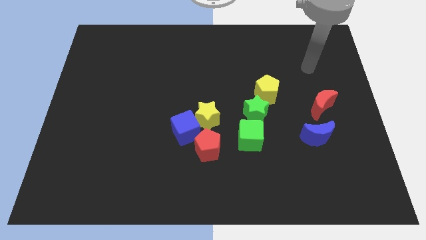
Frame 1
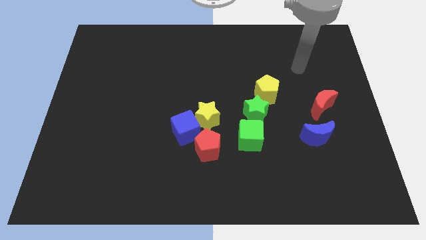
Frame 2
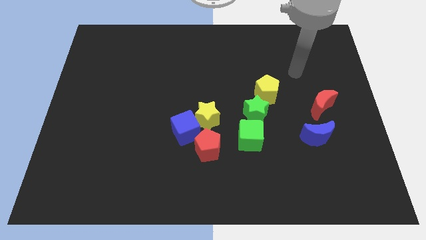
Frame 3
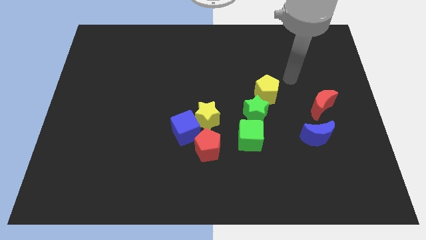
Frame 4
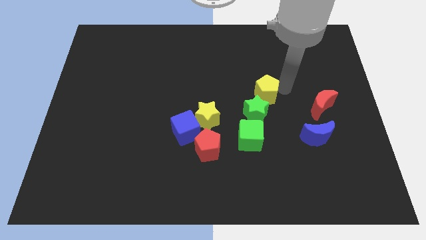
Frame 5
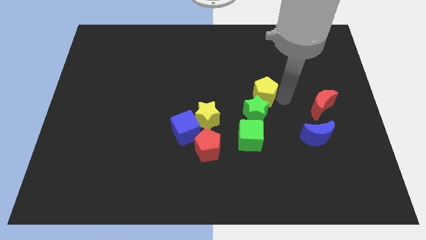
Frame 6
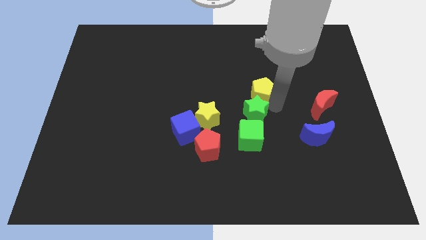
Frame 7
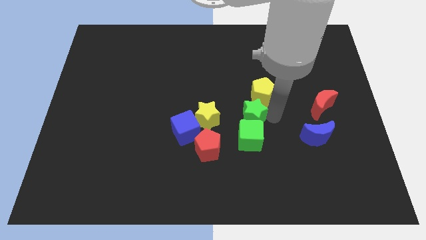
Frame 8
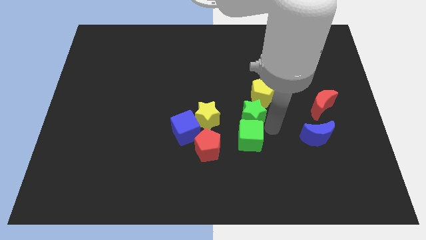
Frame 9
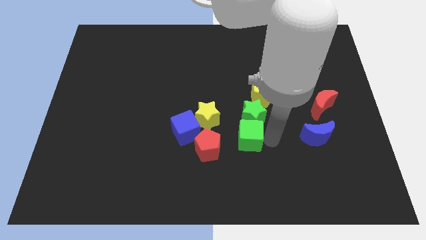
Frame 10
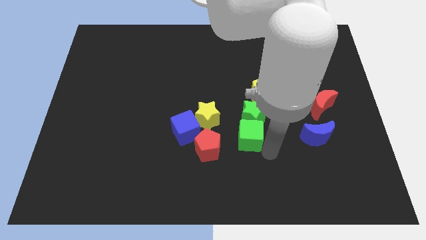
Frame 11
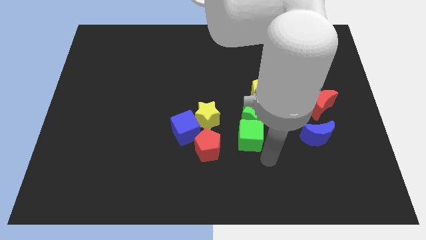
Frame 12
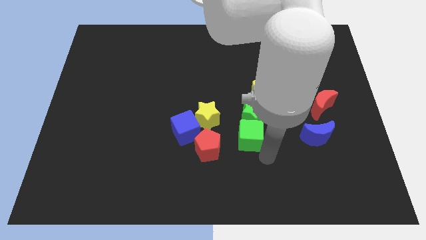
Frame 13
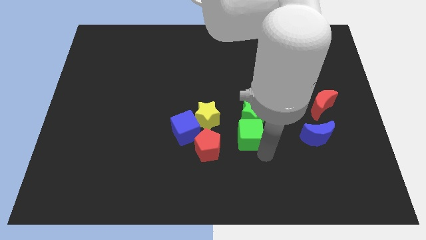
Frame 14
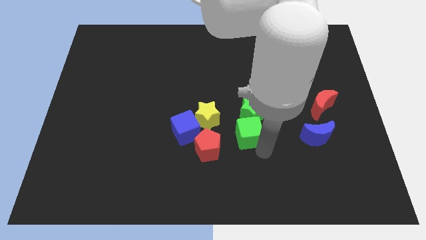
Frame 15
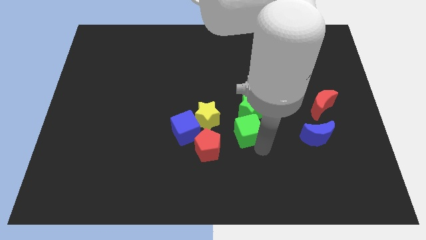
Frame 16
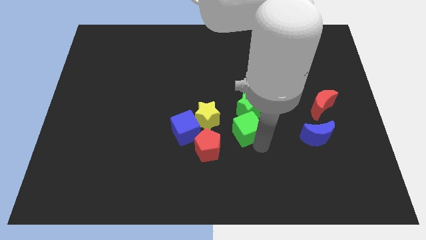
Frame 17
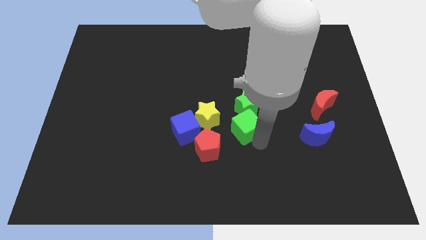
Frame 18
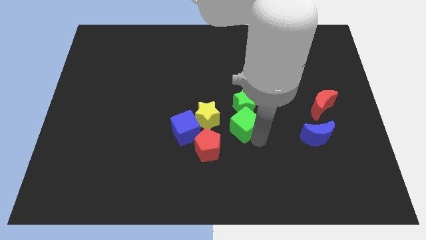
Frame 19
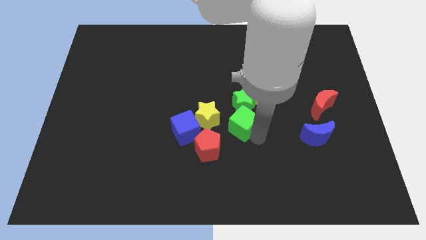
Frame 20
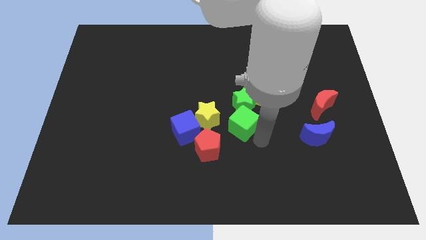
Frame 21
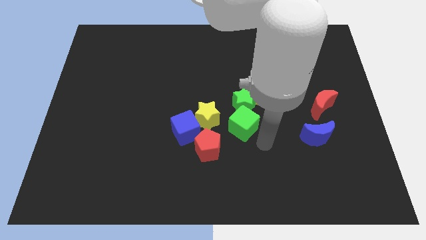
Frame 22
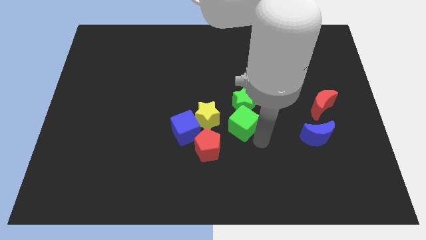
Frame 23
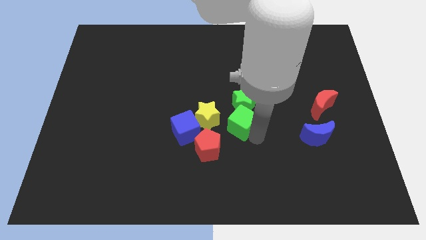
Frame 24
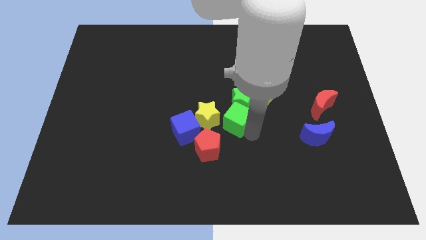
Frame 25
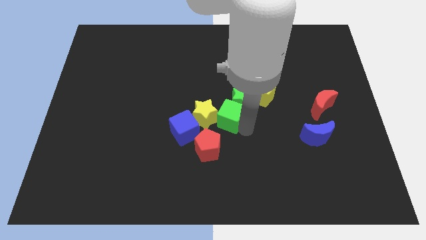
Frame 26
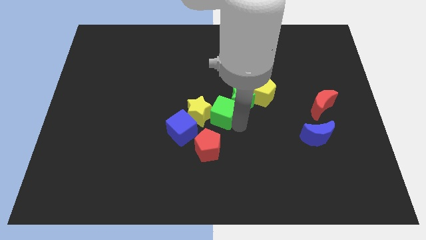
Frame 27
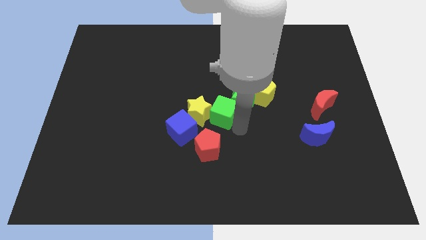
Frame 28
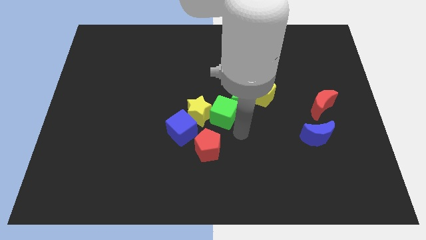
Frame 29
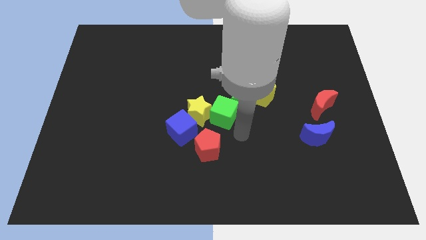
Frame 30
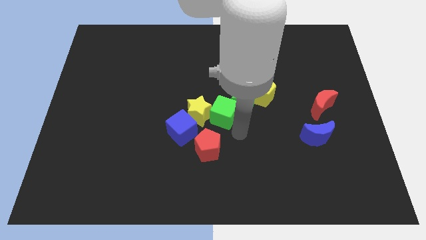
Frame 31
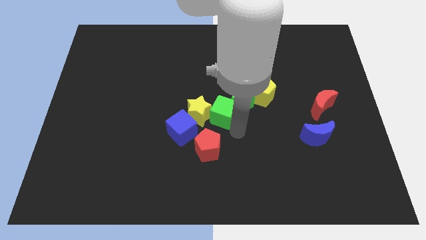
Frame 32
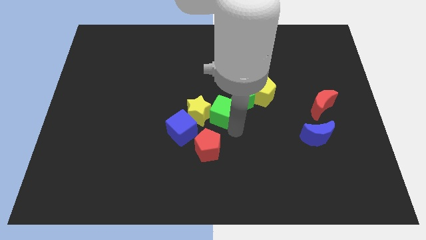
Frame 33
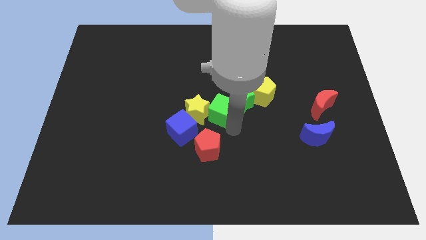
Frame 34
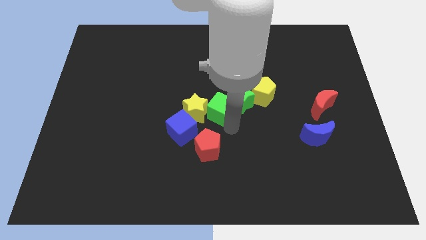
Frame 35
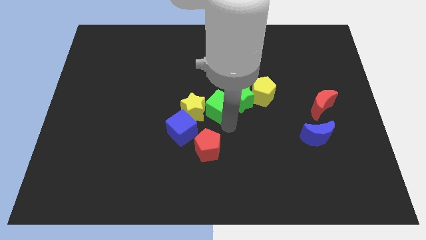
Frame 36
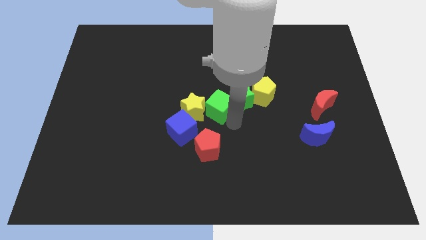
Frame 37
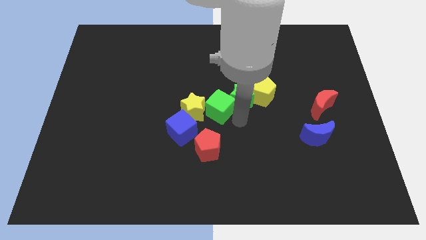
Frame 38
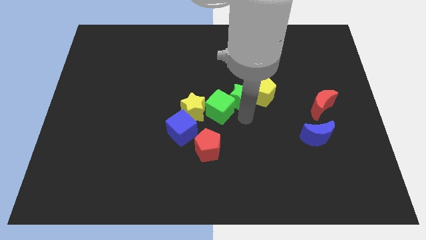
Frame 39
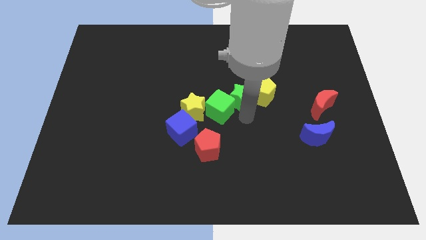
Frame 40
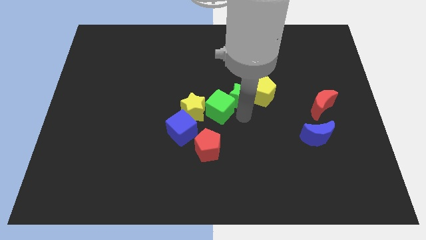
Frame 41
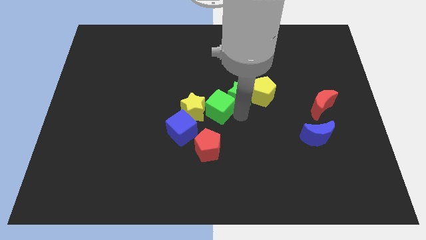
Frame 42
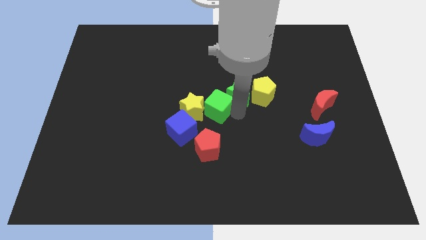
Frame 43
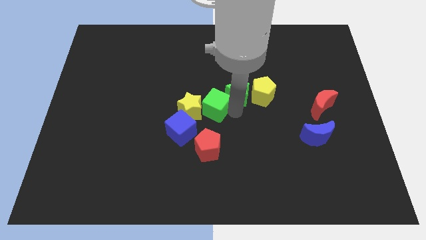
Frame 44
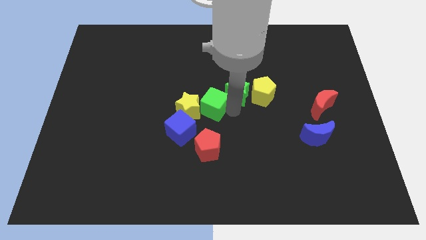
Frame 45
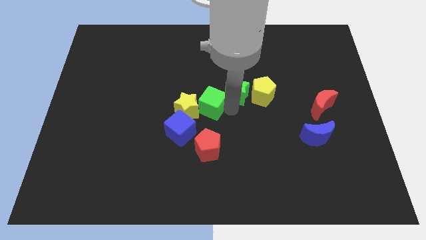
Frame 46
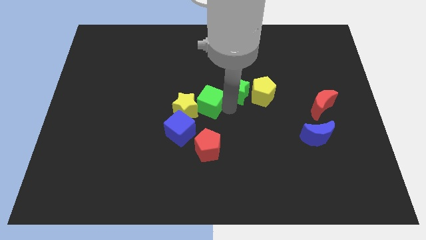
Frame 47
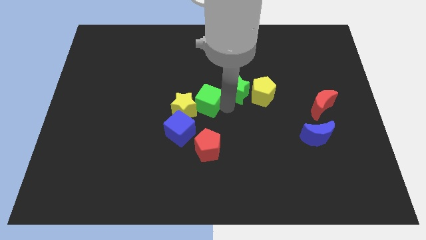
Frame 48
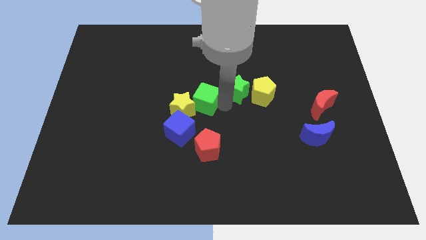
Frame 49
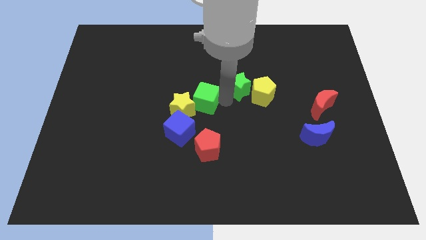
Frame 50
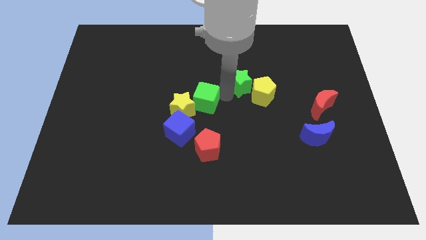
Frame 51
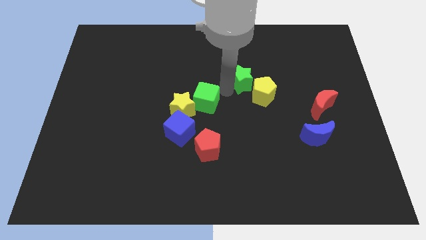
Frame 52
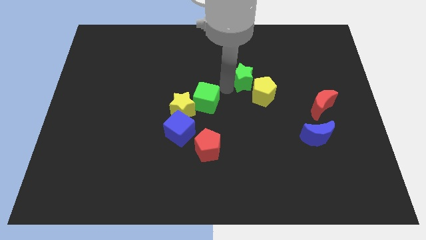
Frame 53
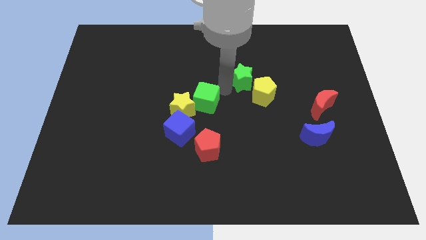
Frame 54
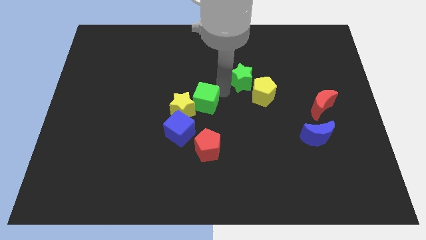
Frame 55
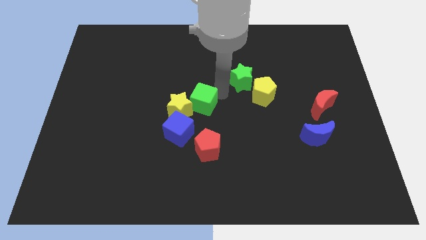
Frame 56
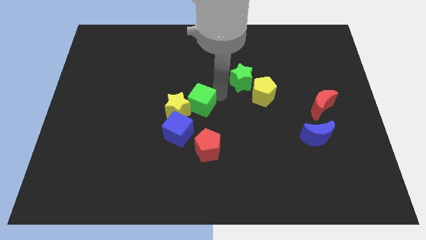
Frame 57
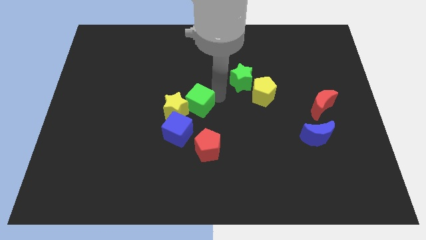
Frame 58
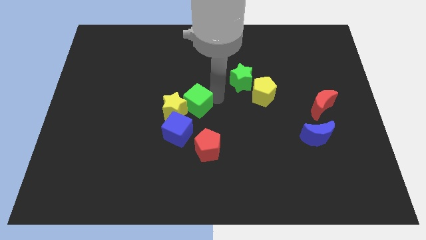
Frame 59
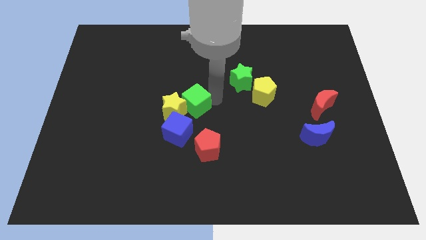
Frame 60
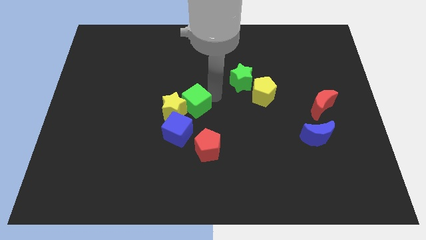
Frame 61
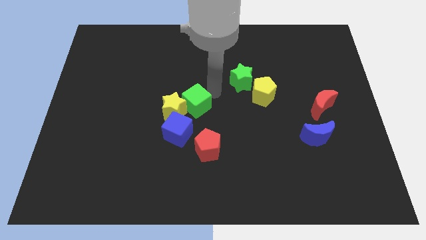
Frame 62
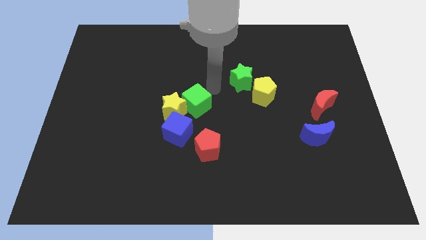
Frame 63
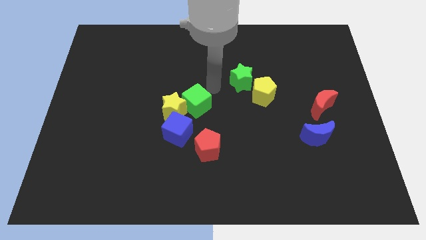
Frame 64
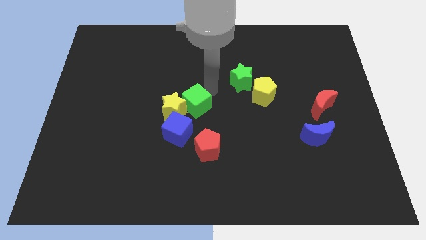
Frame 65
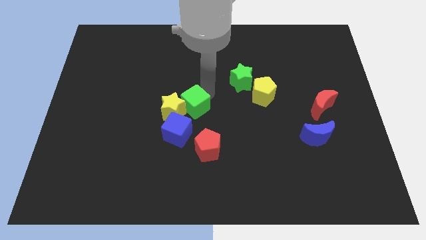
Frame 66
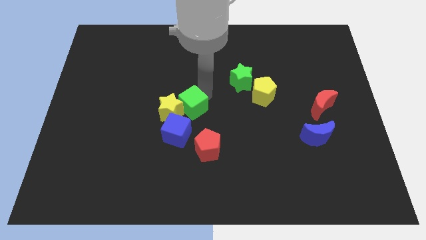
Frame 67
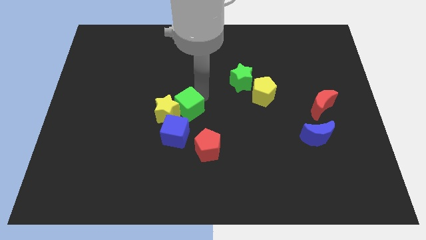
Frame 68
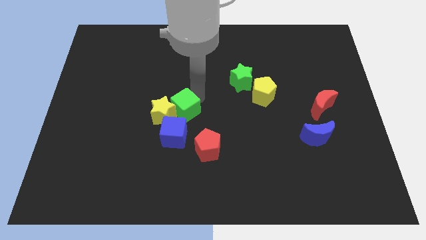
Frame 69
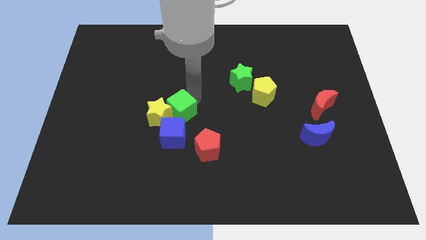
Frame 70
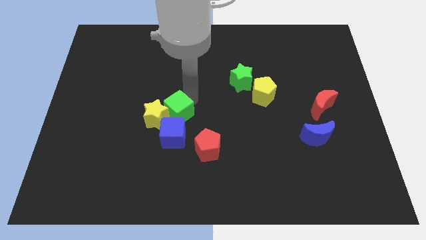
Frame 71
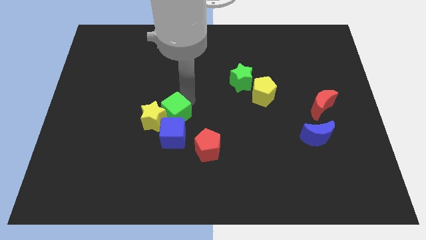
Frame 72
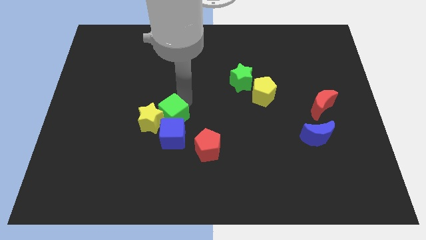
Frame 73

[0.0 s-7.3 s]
move the green cube next to the blue cube
